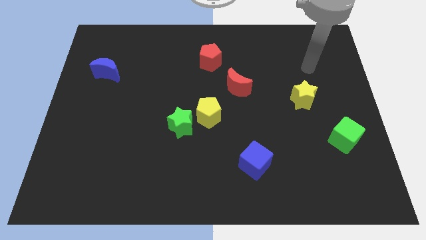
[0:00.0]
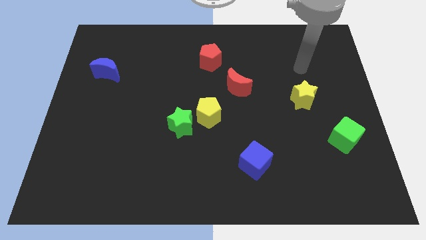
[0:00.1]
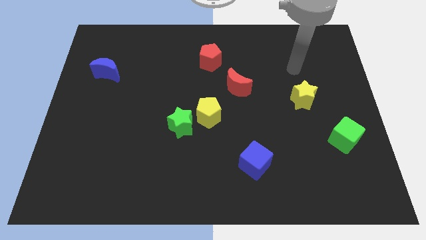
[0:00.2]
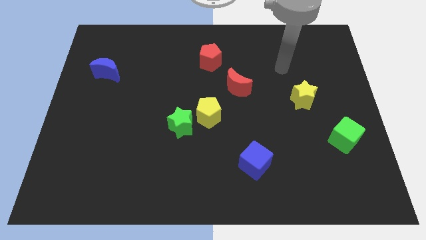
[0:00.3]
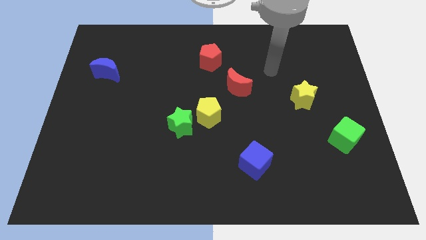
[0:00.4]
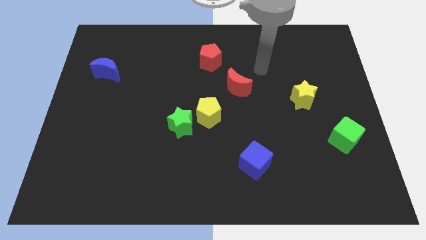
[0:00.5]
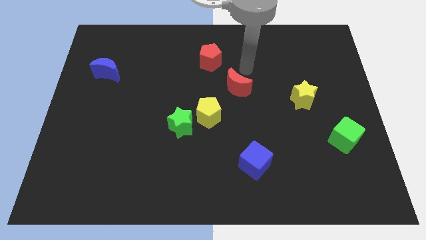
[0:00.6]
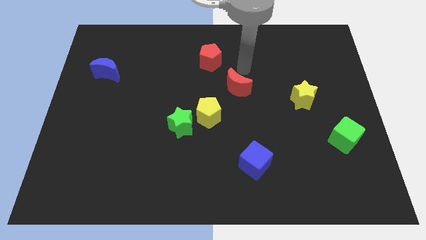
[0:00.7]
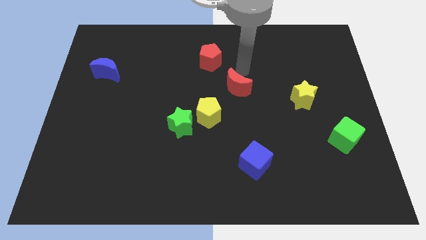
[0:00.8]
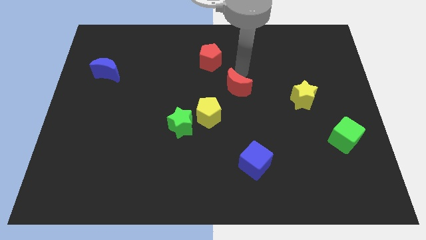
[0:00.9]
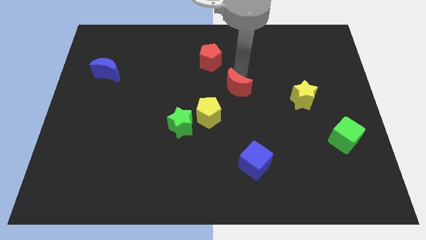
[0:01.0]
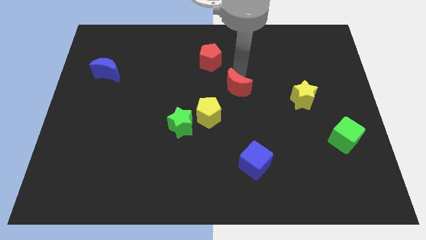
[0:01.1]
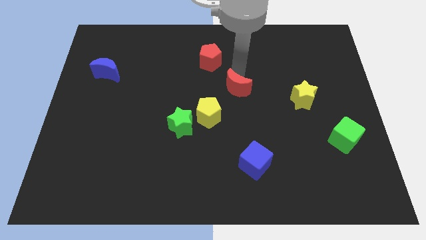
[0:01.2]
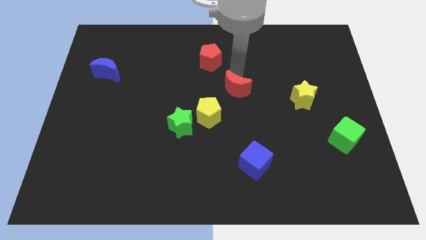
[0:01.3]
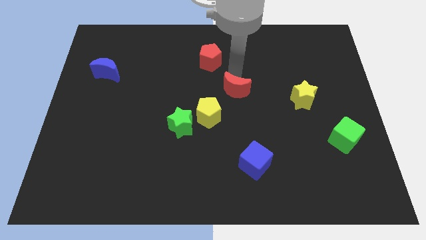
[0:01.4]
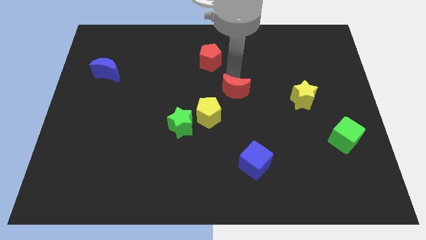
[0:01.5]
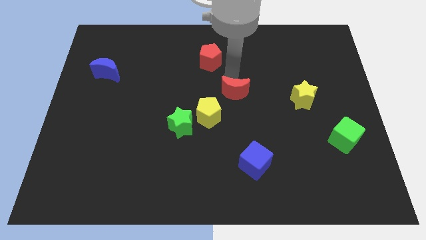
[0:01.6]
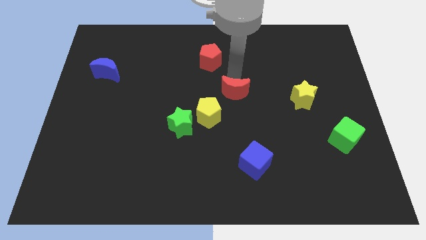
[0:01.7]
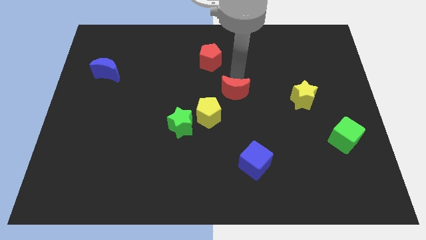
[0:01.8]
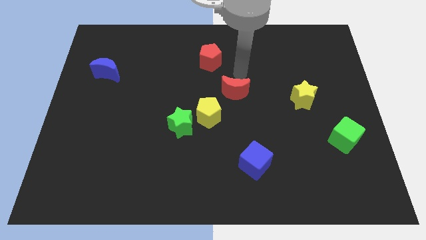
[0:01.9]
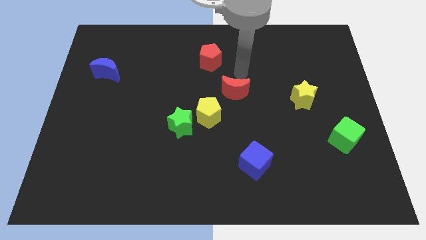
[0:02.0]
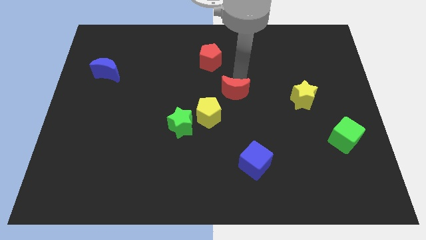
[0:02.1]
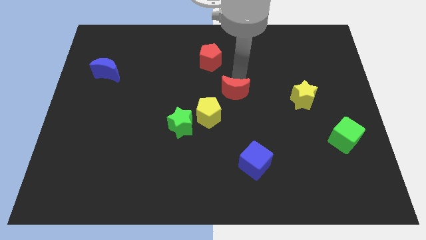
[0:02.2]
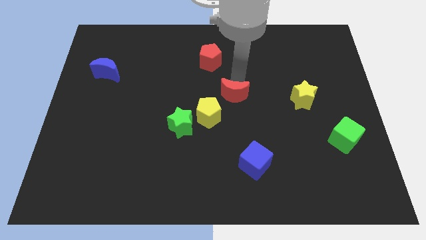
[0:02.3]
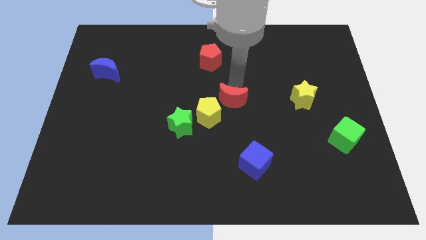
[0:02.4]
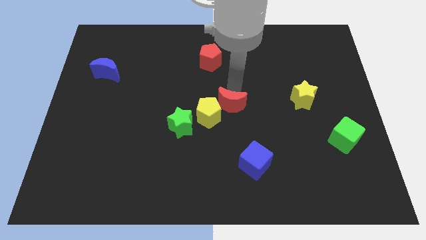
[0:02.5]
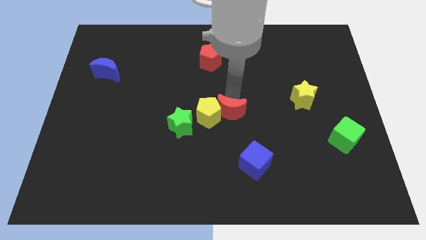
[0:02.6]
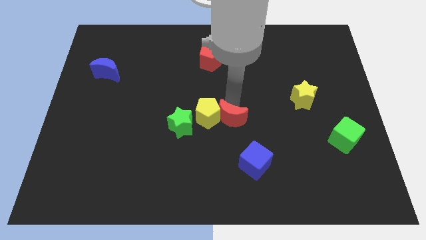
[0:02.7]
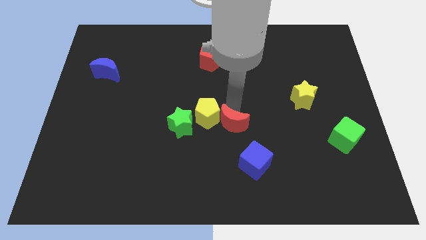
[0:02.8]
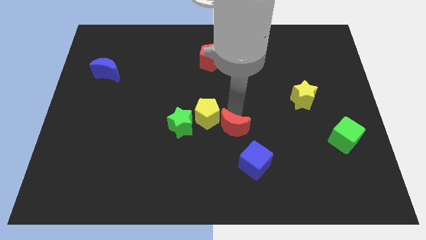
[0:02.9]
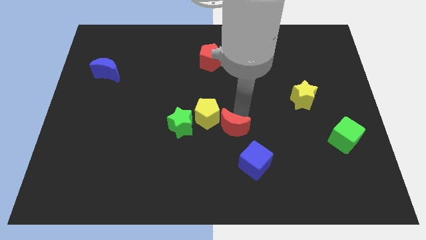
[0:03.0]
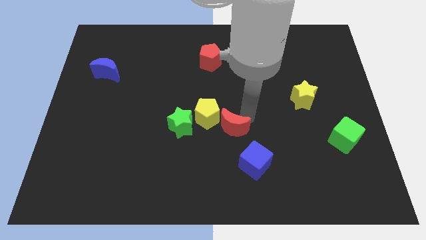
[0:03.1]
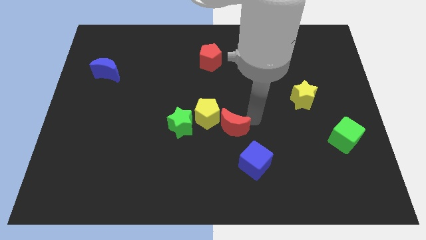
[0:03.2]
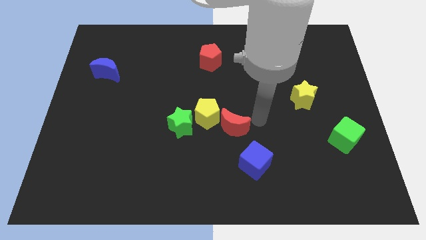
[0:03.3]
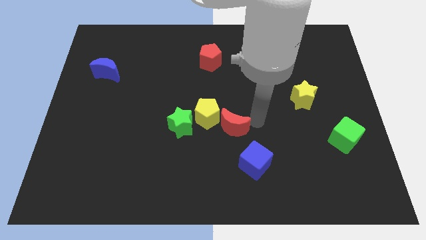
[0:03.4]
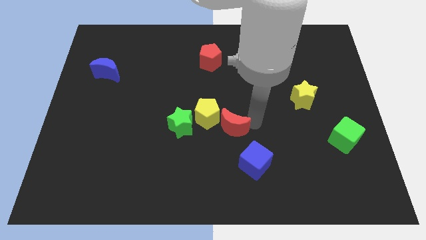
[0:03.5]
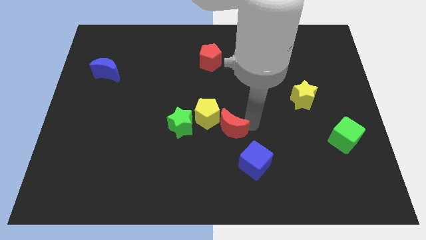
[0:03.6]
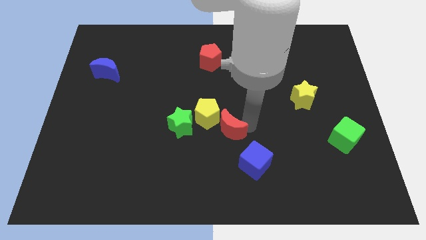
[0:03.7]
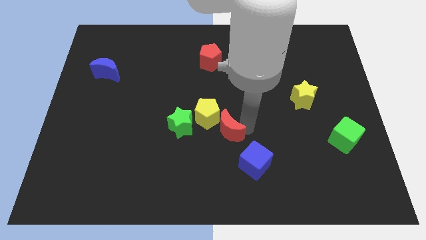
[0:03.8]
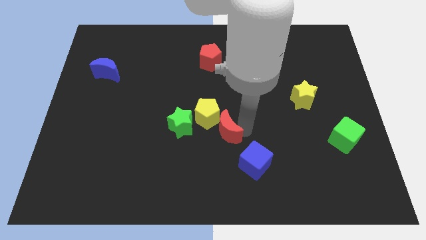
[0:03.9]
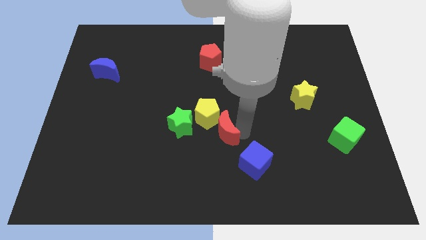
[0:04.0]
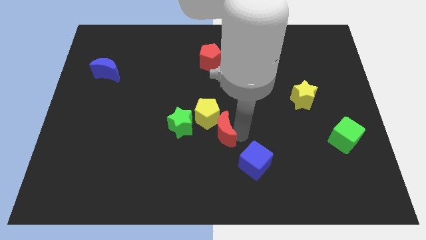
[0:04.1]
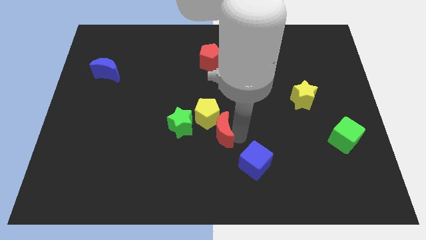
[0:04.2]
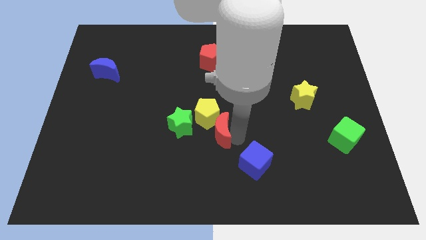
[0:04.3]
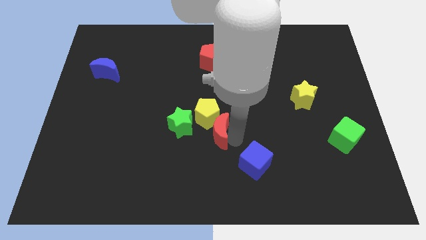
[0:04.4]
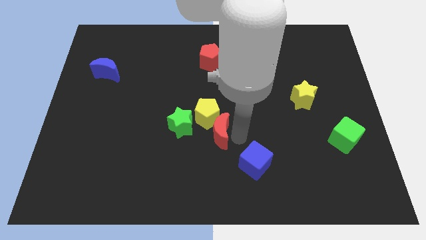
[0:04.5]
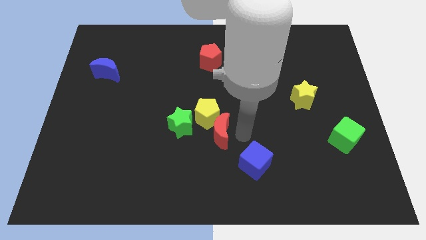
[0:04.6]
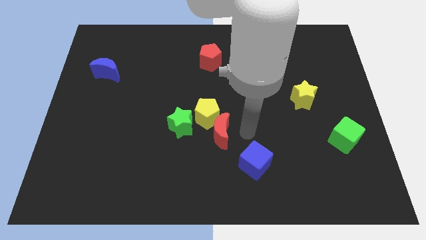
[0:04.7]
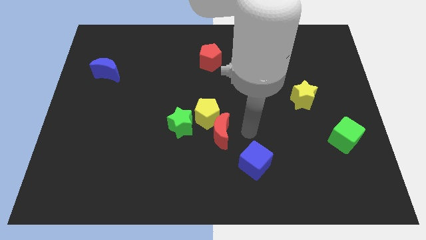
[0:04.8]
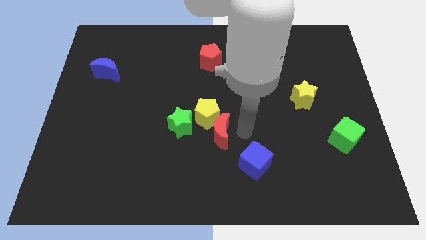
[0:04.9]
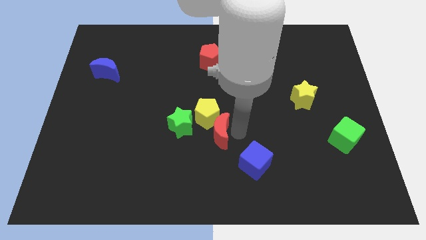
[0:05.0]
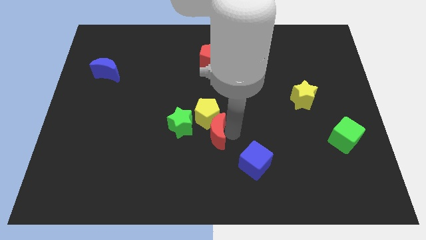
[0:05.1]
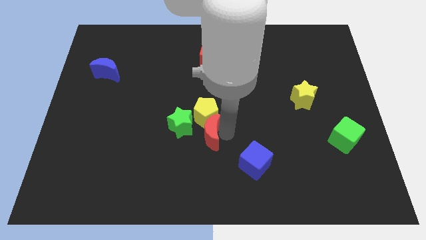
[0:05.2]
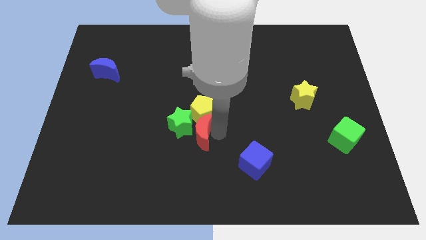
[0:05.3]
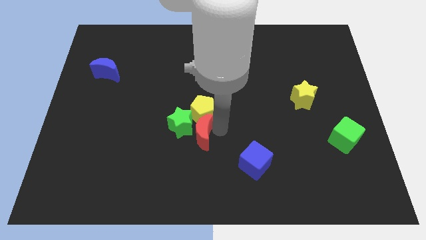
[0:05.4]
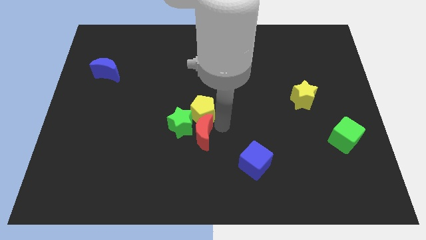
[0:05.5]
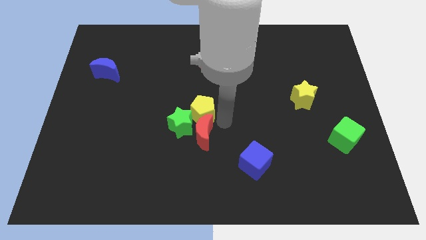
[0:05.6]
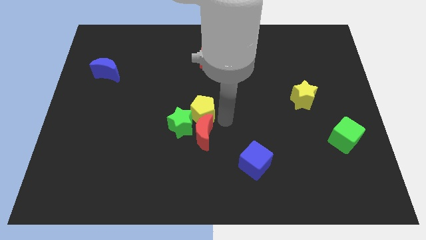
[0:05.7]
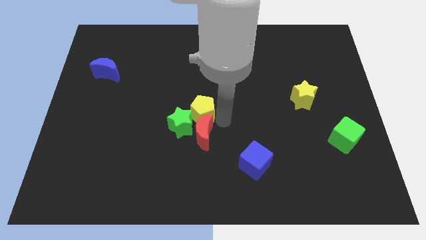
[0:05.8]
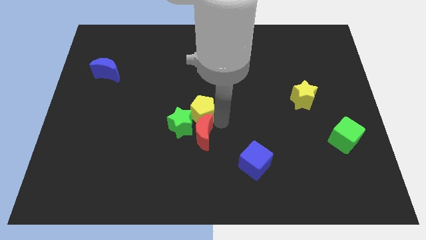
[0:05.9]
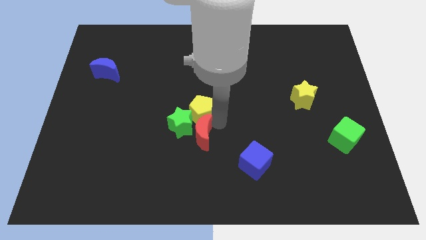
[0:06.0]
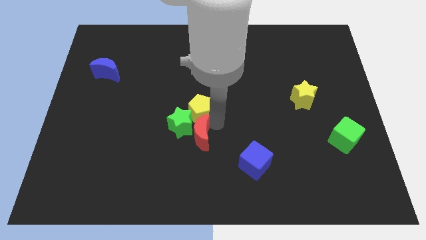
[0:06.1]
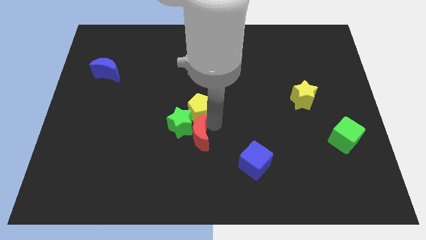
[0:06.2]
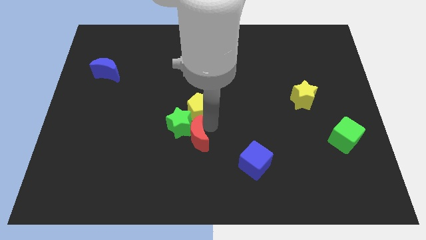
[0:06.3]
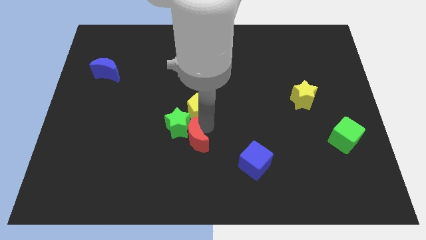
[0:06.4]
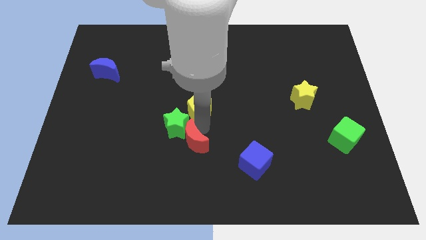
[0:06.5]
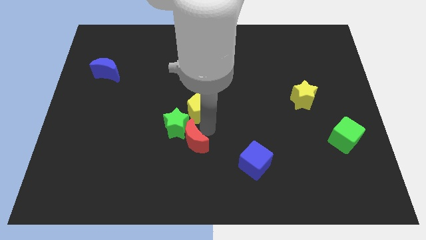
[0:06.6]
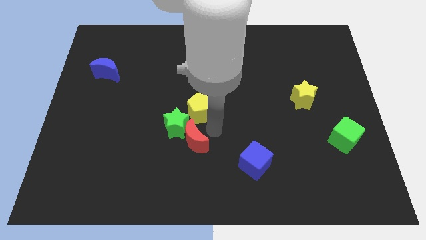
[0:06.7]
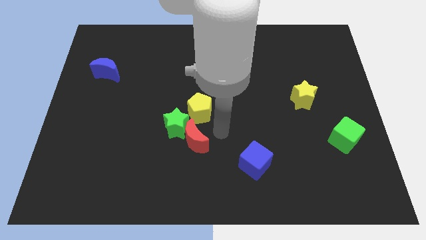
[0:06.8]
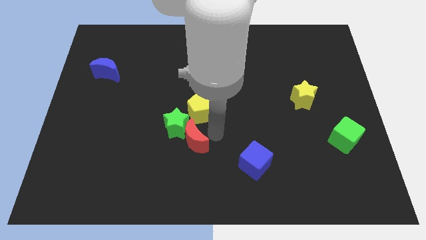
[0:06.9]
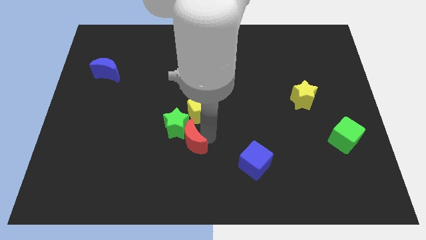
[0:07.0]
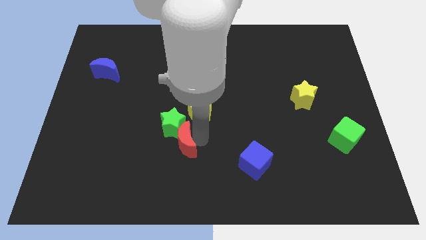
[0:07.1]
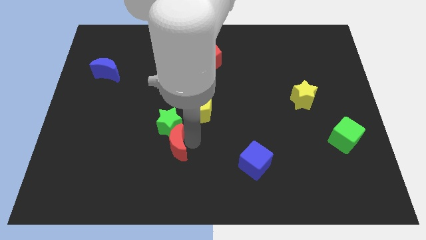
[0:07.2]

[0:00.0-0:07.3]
slide the red moon down and to the left diagonally

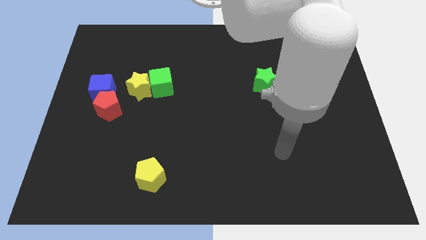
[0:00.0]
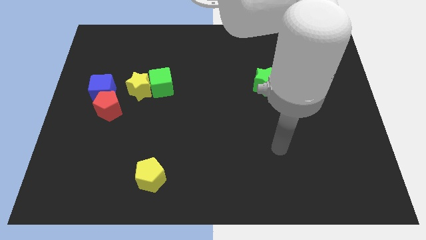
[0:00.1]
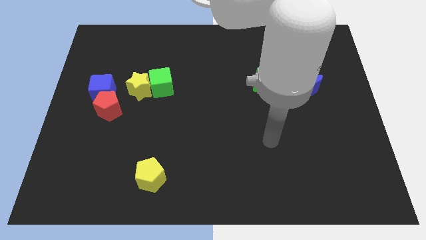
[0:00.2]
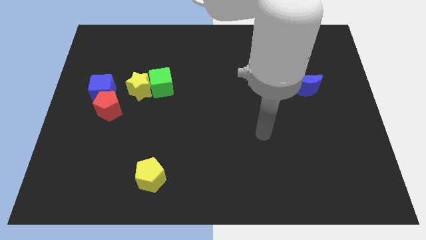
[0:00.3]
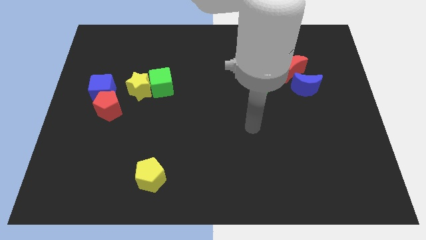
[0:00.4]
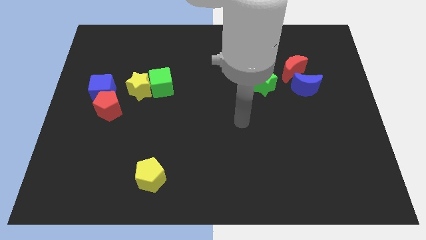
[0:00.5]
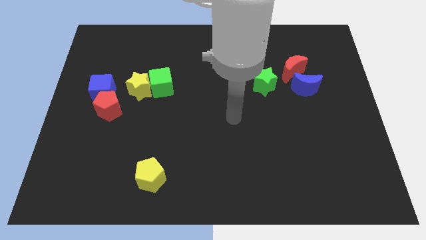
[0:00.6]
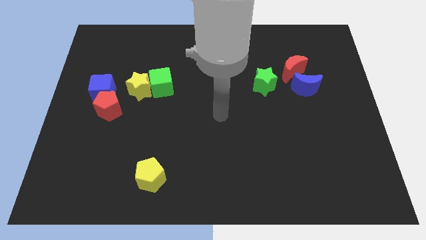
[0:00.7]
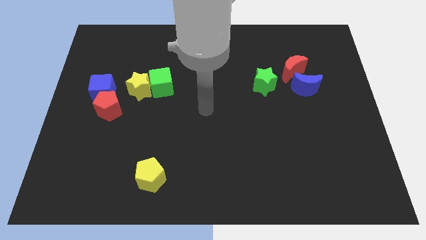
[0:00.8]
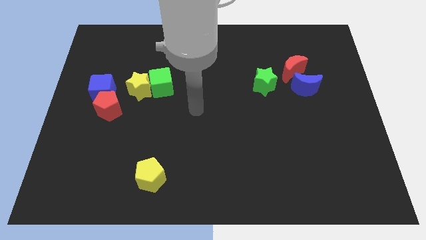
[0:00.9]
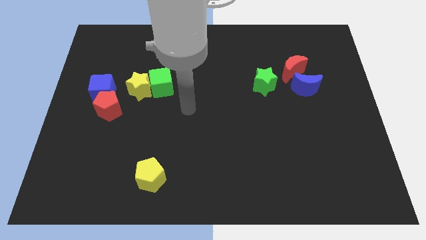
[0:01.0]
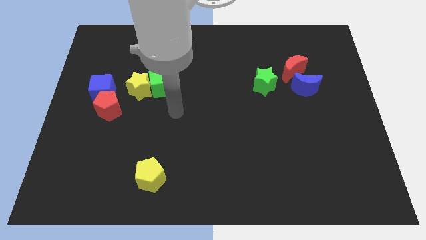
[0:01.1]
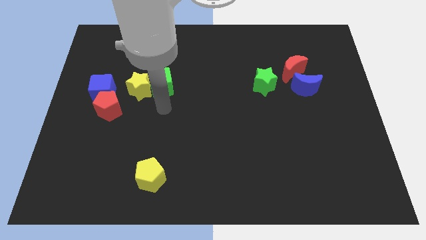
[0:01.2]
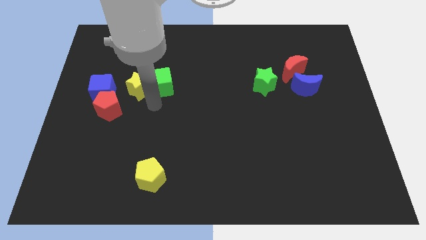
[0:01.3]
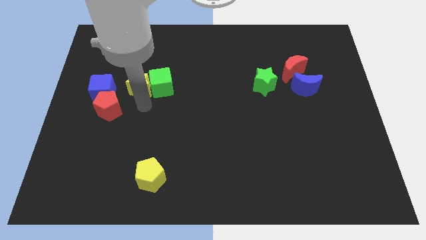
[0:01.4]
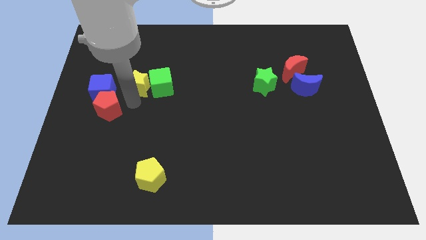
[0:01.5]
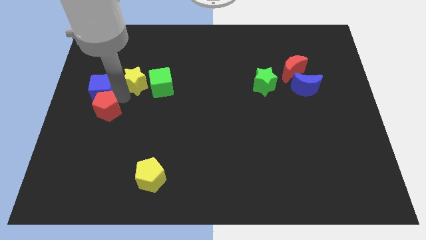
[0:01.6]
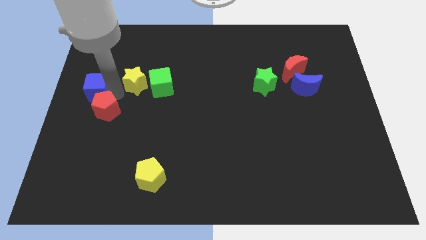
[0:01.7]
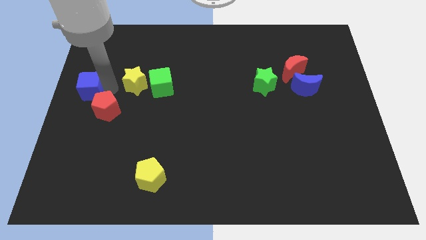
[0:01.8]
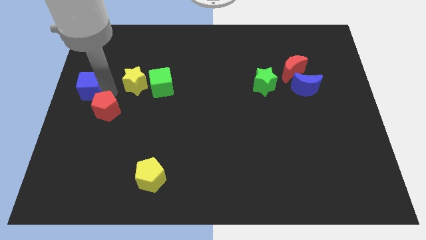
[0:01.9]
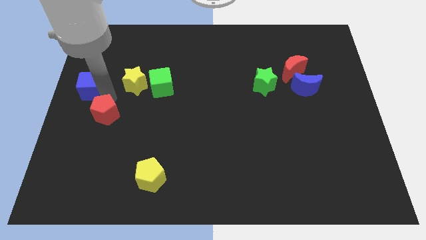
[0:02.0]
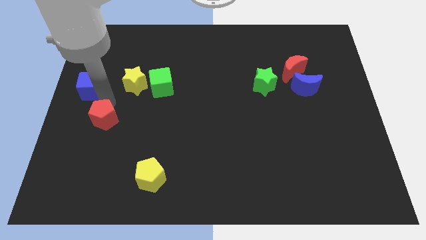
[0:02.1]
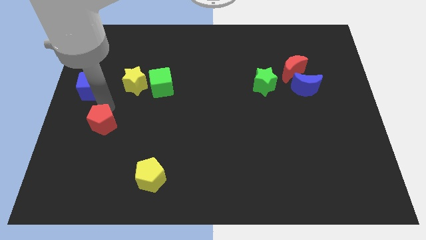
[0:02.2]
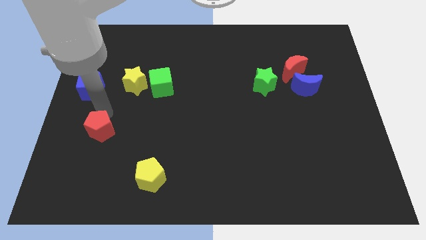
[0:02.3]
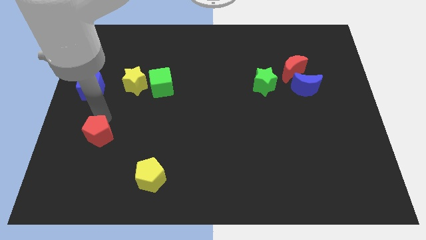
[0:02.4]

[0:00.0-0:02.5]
slightly move the red pentagon down
